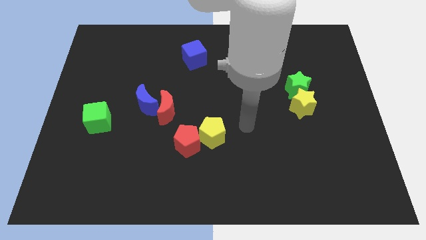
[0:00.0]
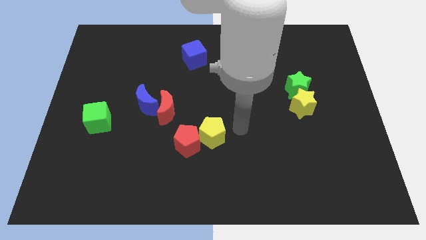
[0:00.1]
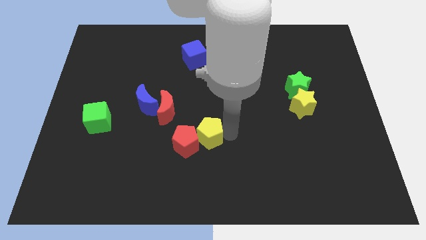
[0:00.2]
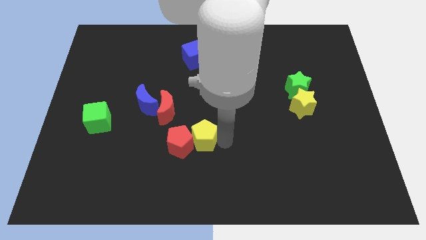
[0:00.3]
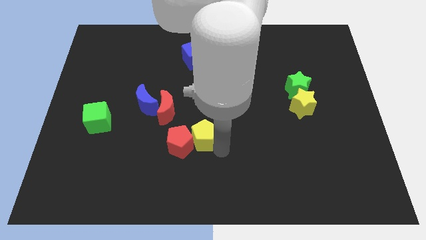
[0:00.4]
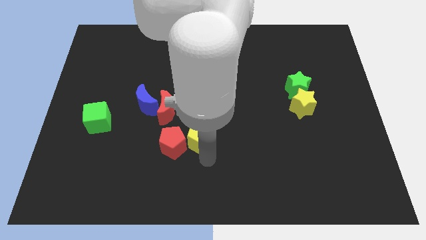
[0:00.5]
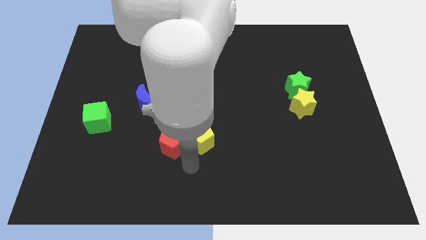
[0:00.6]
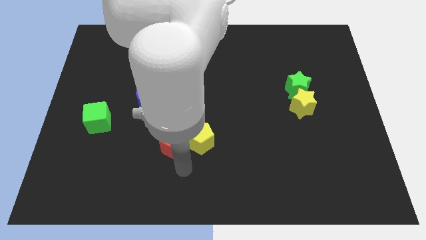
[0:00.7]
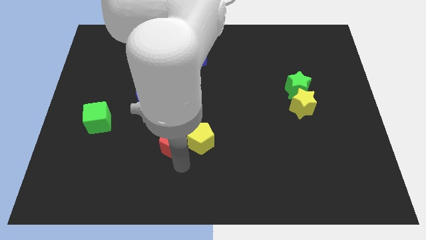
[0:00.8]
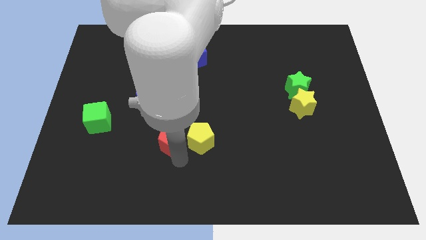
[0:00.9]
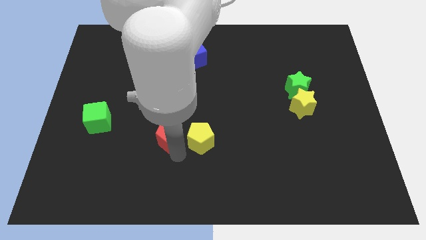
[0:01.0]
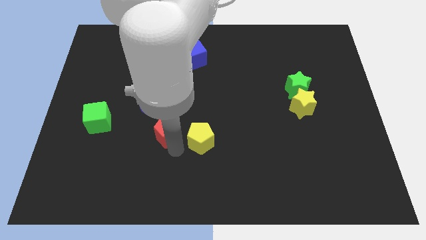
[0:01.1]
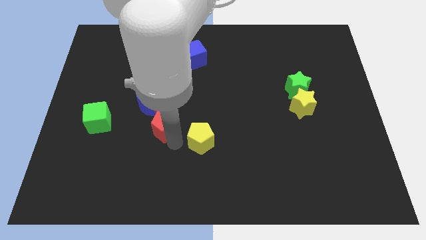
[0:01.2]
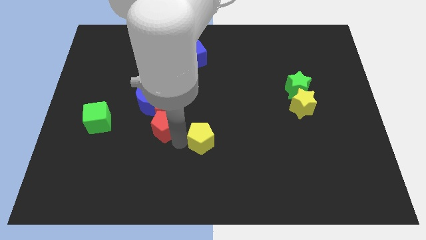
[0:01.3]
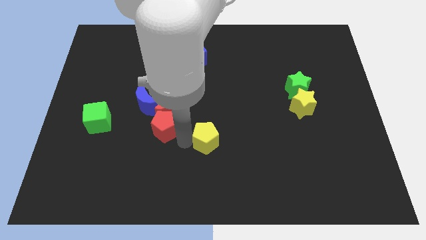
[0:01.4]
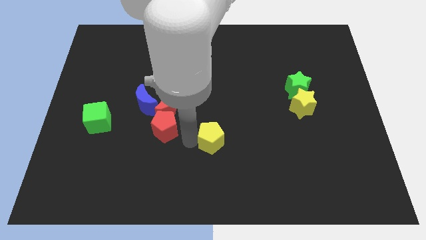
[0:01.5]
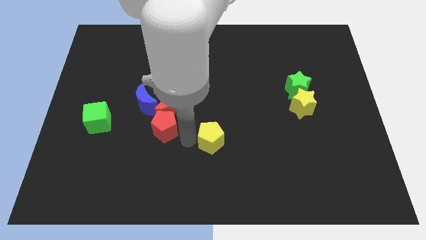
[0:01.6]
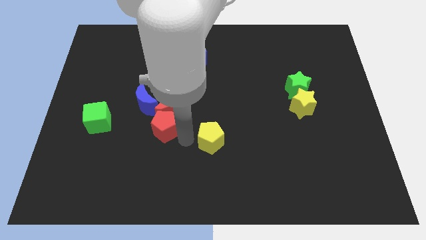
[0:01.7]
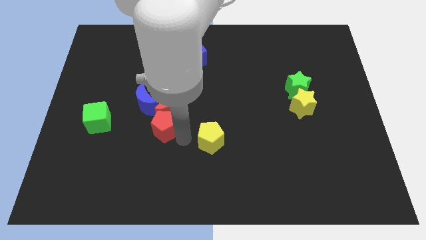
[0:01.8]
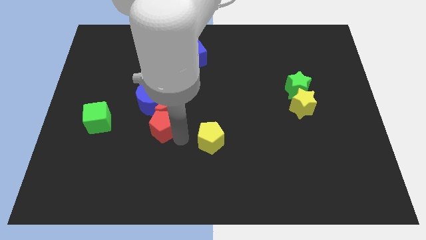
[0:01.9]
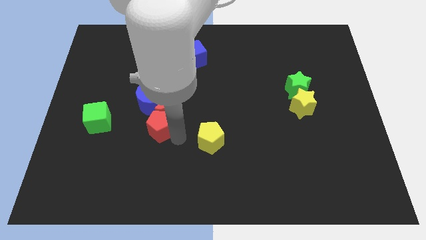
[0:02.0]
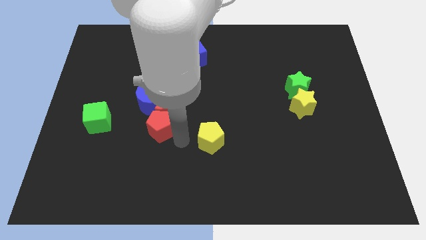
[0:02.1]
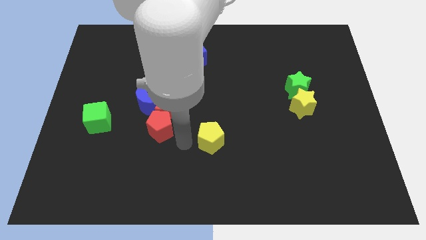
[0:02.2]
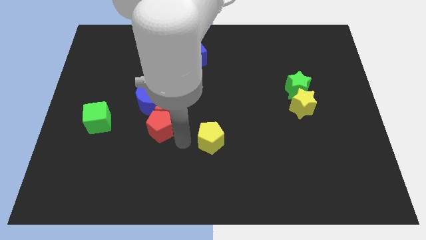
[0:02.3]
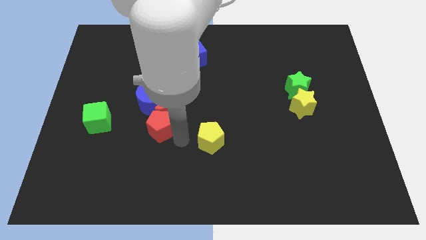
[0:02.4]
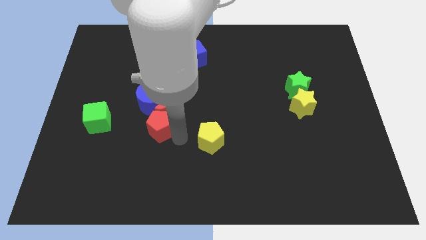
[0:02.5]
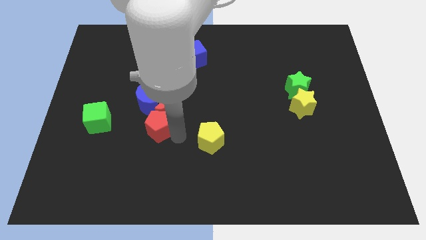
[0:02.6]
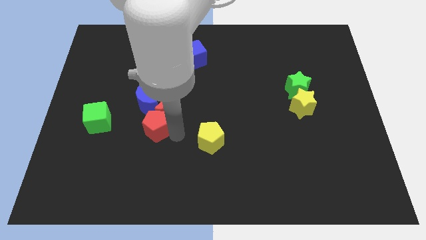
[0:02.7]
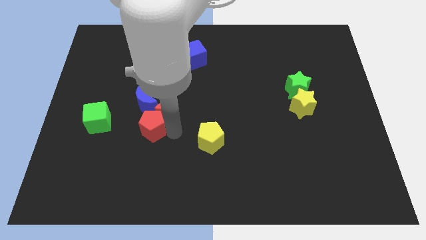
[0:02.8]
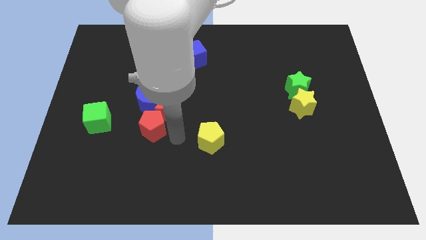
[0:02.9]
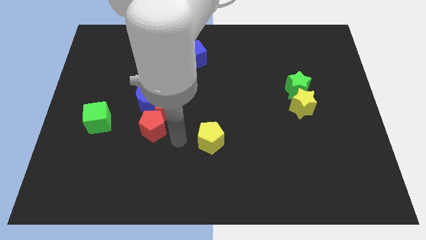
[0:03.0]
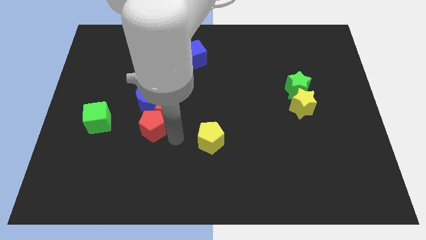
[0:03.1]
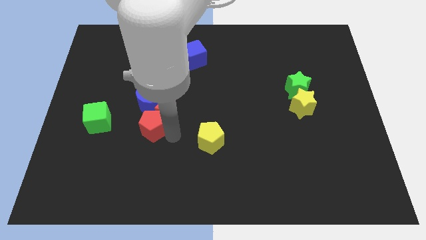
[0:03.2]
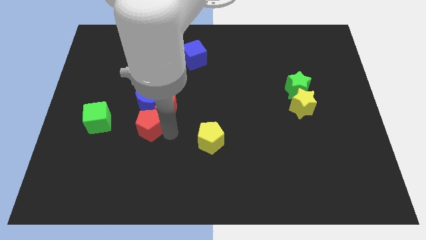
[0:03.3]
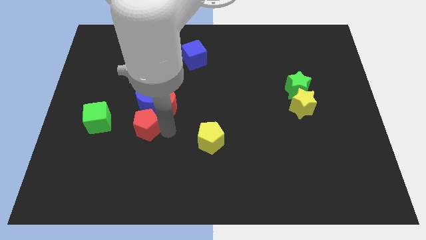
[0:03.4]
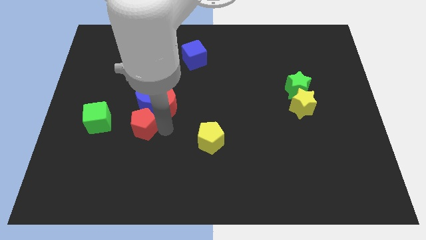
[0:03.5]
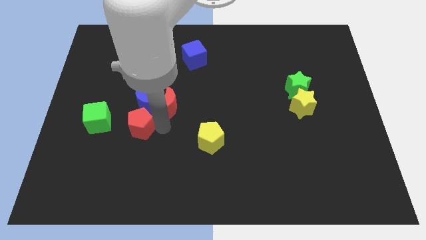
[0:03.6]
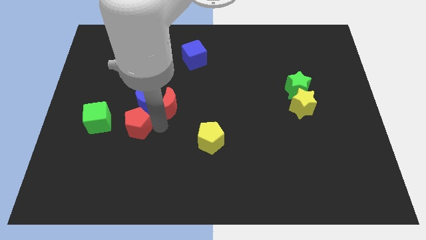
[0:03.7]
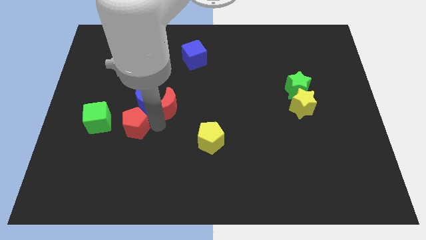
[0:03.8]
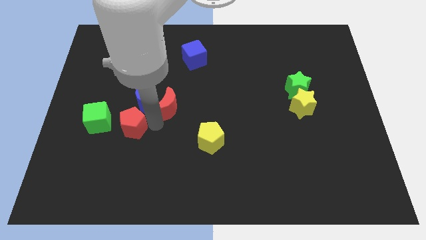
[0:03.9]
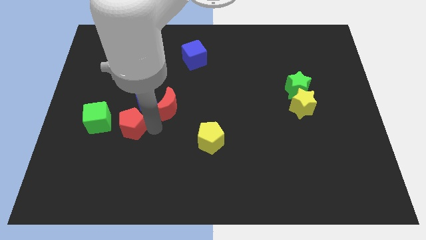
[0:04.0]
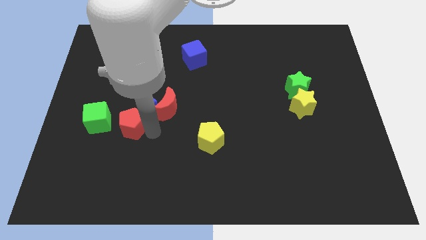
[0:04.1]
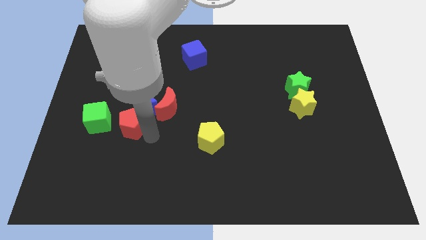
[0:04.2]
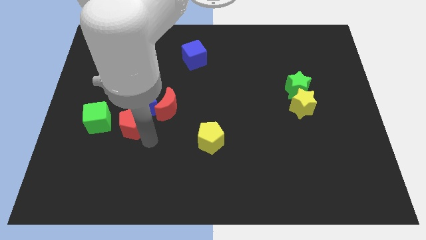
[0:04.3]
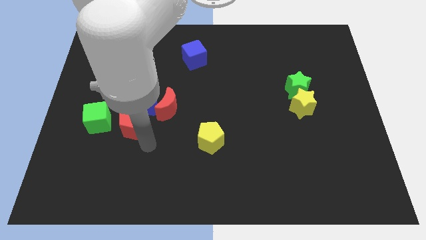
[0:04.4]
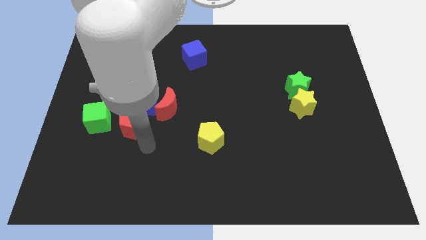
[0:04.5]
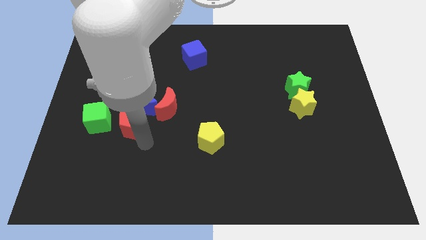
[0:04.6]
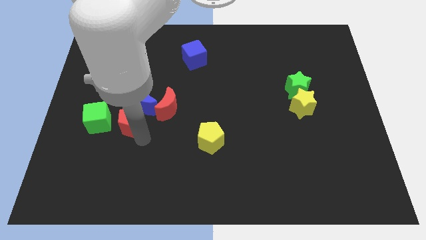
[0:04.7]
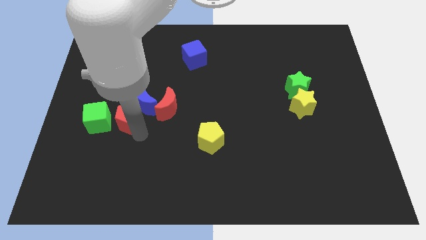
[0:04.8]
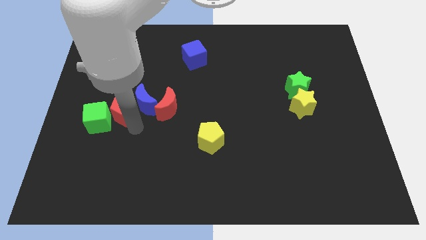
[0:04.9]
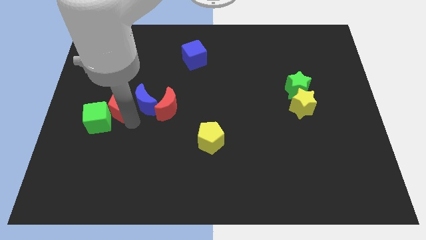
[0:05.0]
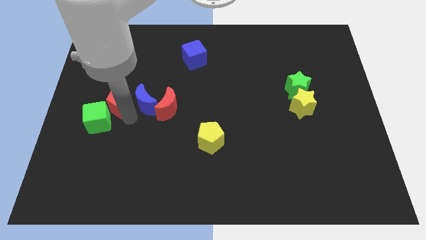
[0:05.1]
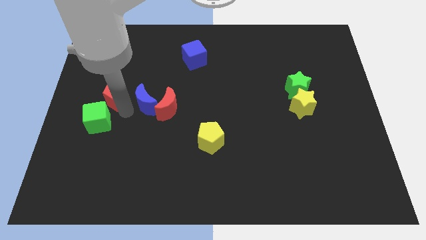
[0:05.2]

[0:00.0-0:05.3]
push the red pentagon up and left diagonally

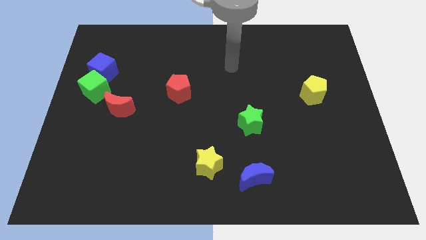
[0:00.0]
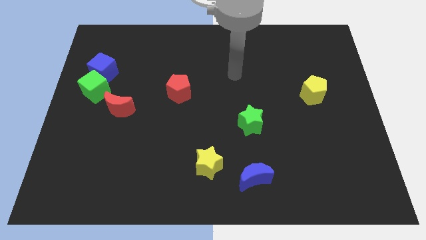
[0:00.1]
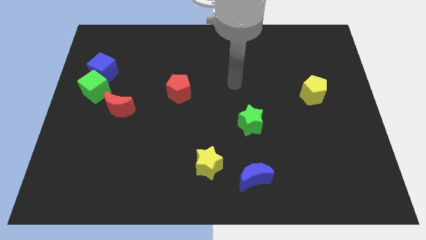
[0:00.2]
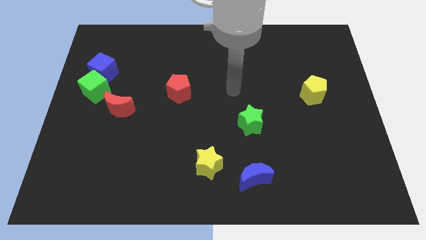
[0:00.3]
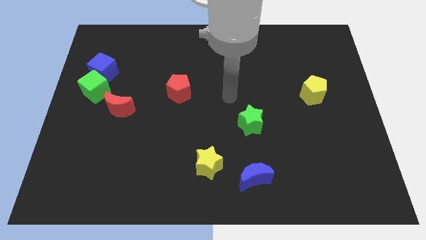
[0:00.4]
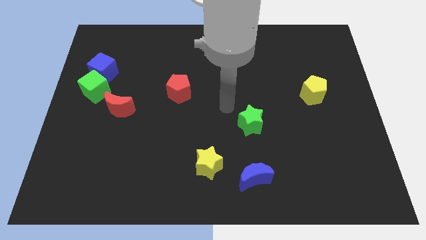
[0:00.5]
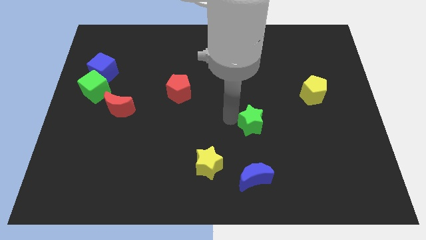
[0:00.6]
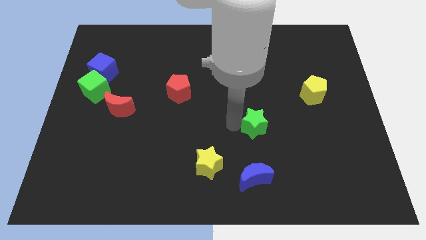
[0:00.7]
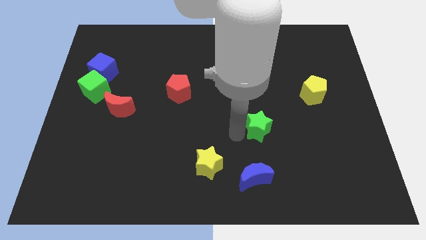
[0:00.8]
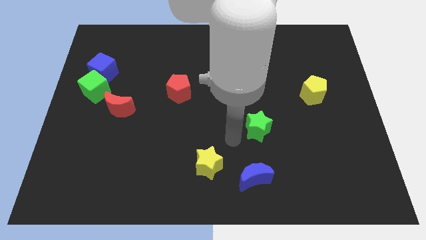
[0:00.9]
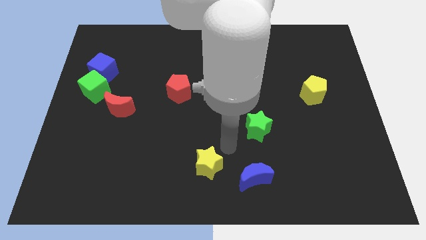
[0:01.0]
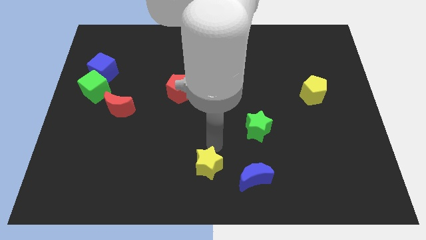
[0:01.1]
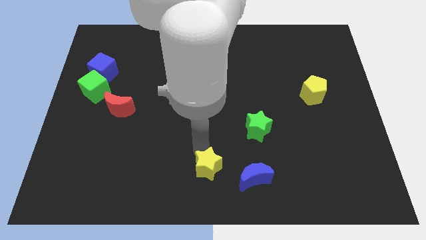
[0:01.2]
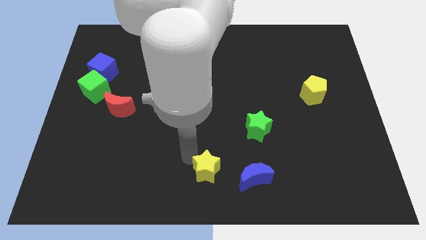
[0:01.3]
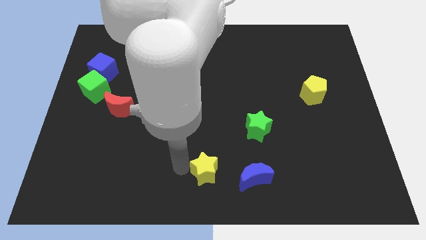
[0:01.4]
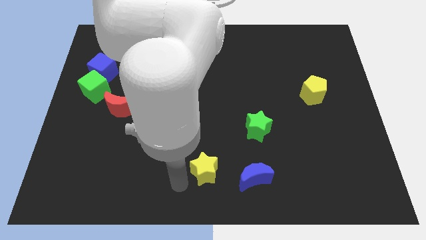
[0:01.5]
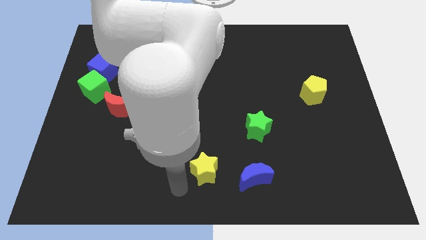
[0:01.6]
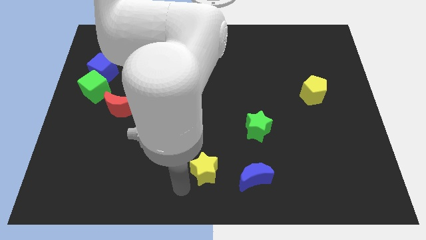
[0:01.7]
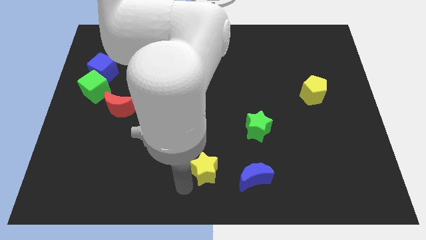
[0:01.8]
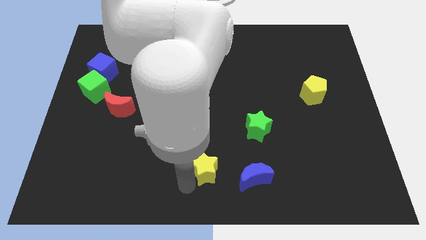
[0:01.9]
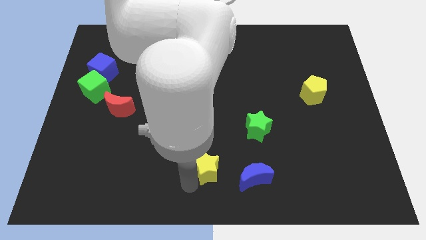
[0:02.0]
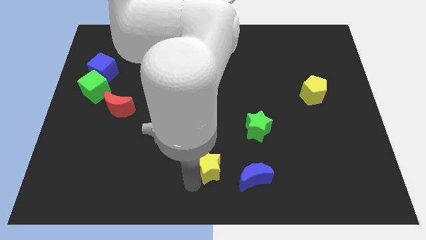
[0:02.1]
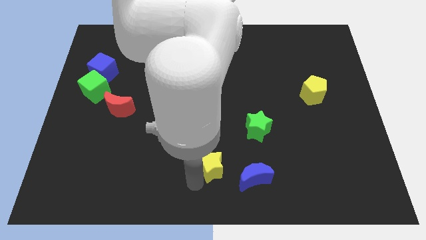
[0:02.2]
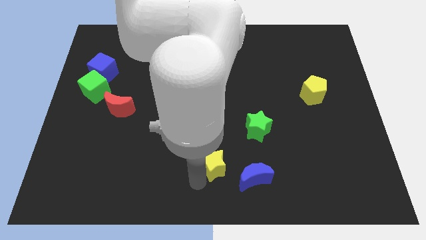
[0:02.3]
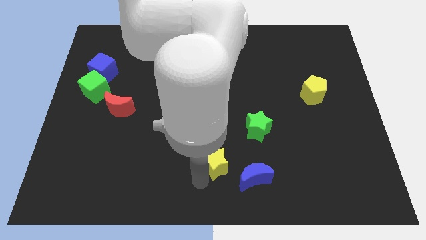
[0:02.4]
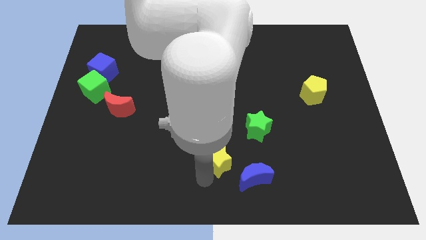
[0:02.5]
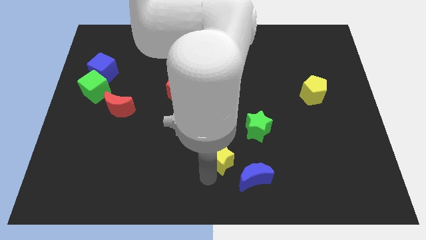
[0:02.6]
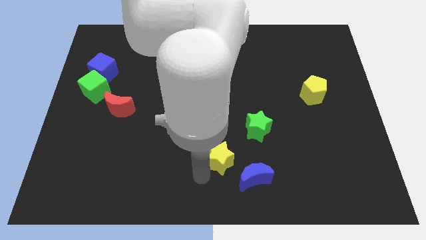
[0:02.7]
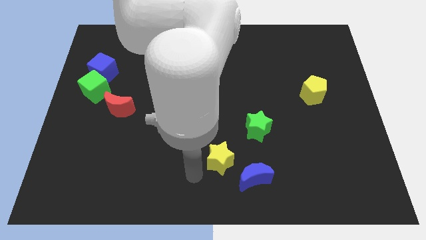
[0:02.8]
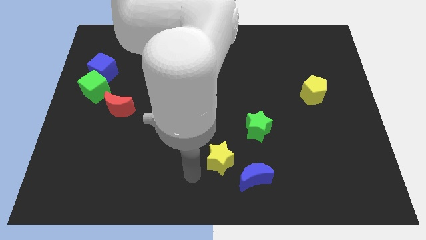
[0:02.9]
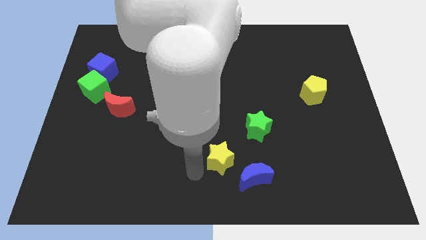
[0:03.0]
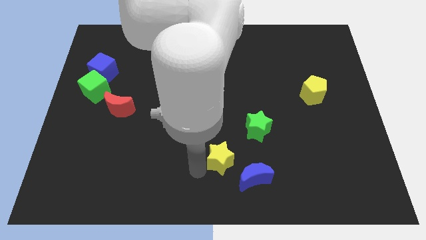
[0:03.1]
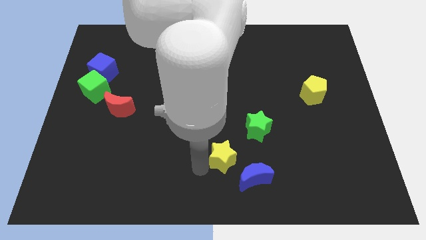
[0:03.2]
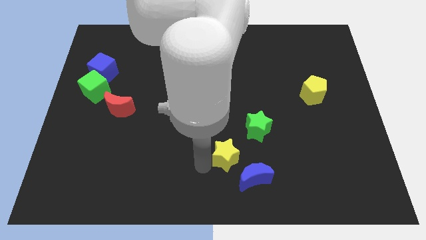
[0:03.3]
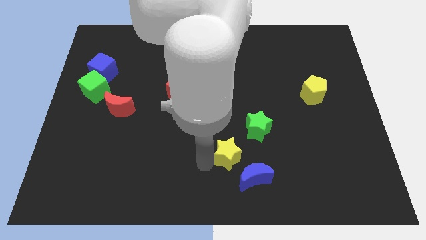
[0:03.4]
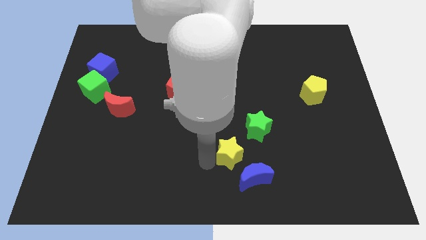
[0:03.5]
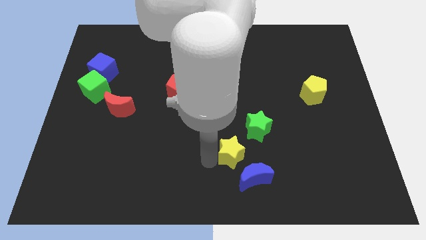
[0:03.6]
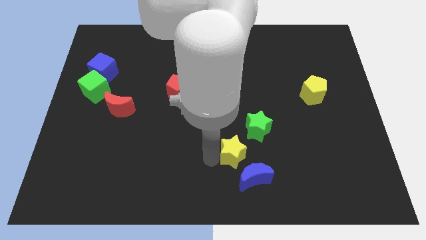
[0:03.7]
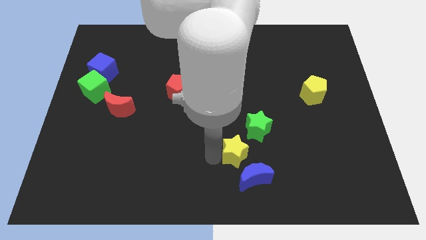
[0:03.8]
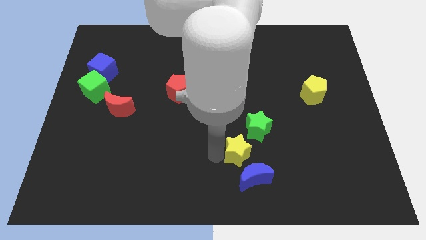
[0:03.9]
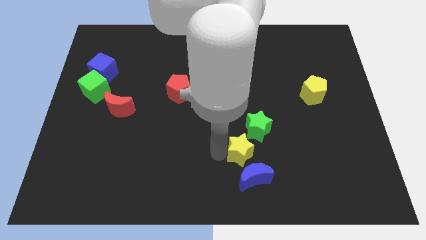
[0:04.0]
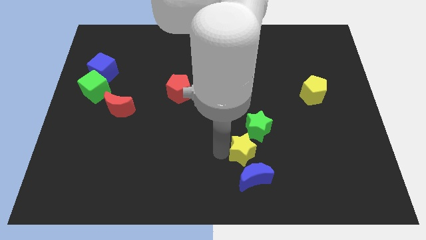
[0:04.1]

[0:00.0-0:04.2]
slightly push the yellow star upwards and then to the right
